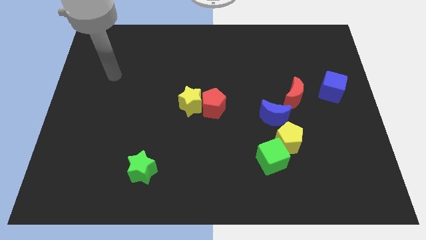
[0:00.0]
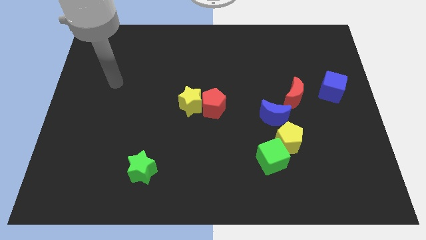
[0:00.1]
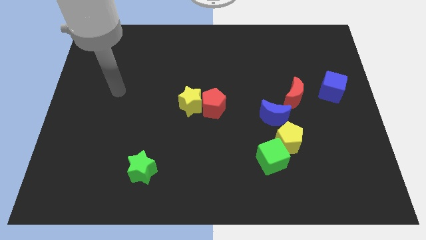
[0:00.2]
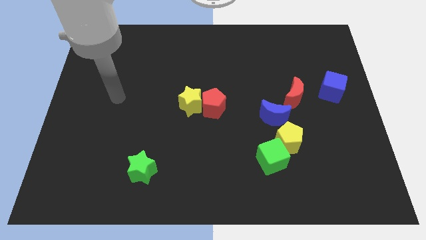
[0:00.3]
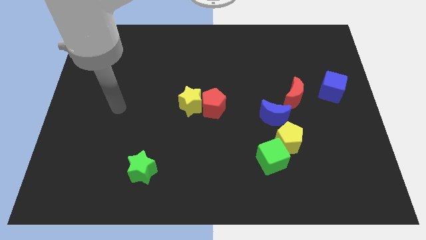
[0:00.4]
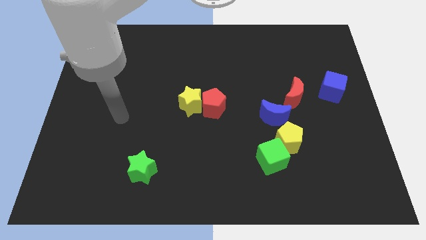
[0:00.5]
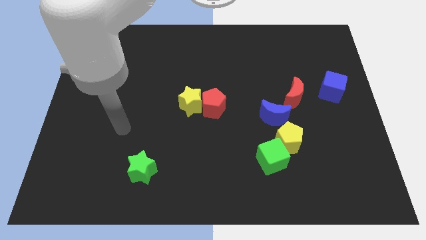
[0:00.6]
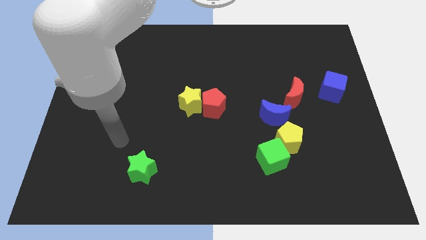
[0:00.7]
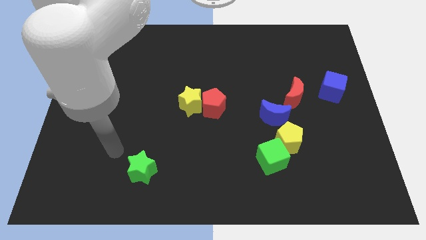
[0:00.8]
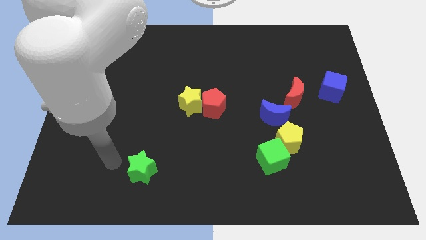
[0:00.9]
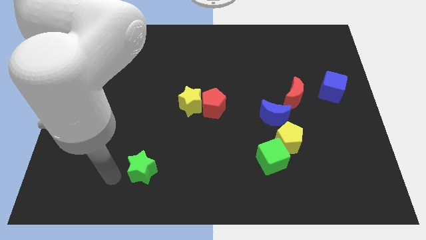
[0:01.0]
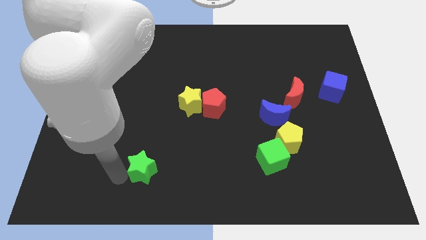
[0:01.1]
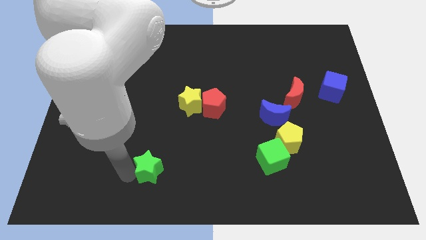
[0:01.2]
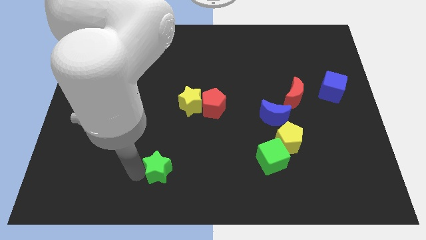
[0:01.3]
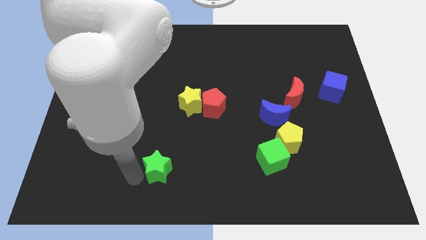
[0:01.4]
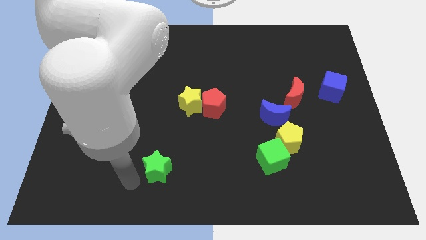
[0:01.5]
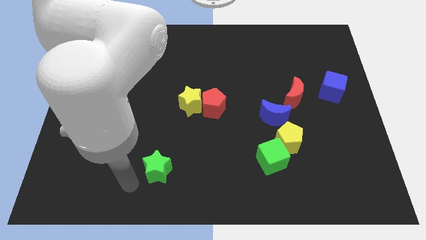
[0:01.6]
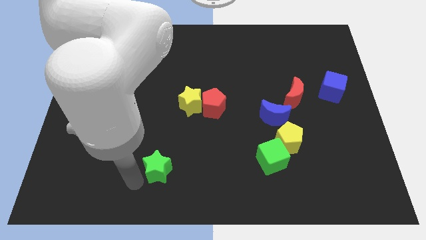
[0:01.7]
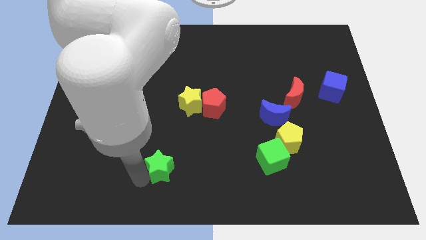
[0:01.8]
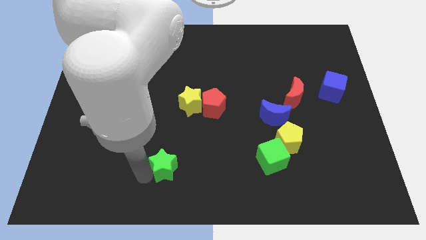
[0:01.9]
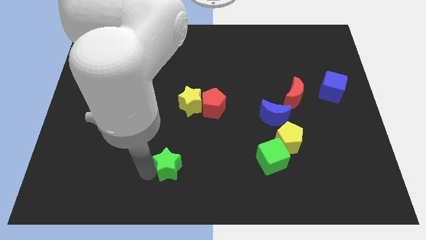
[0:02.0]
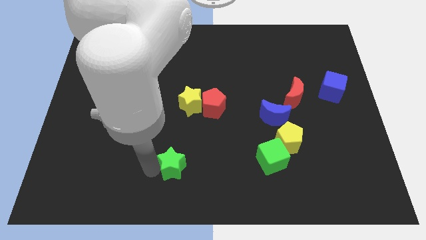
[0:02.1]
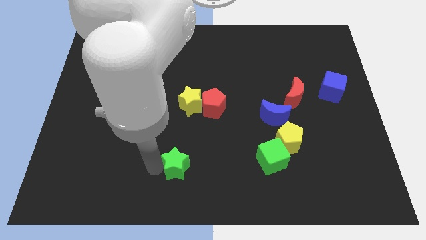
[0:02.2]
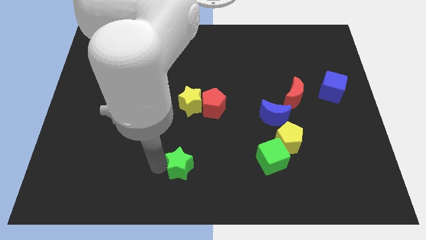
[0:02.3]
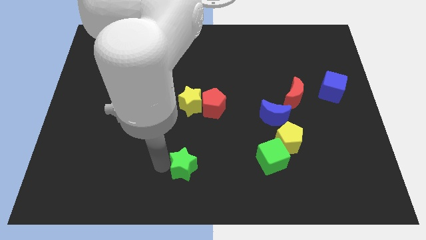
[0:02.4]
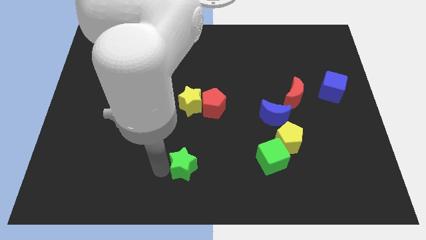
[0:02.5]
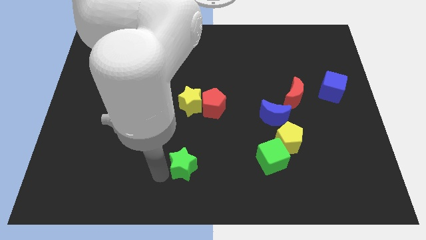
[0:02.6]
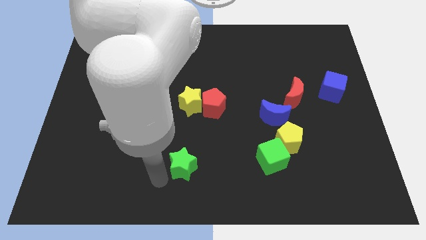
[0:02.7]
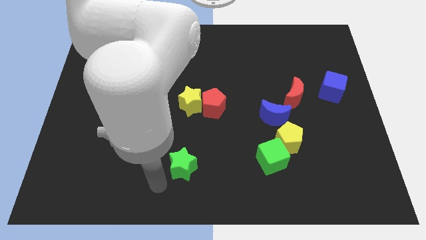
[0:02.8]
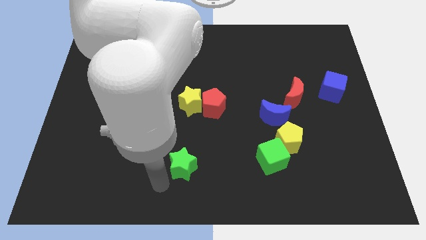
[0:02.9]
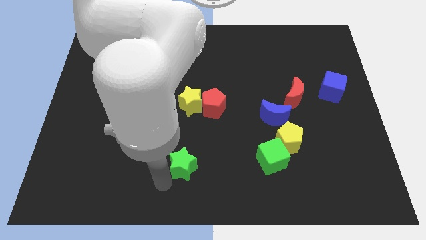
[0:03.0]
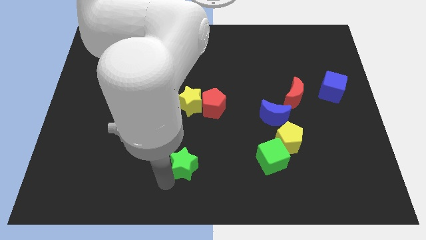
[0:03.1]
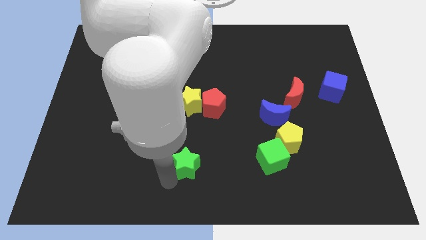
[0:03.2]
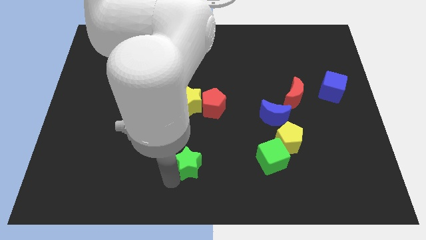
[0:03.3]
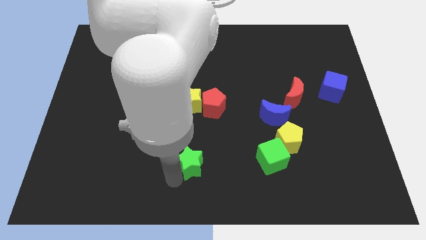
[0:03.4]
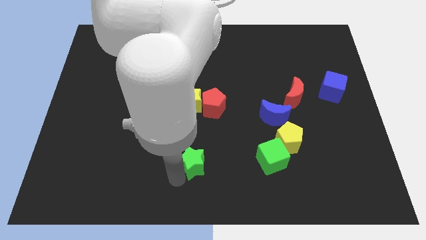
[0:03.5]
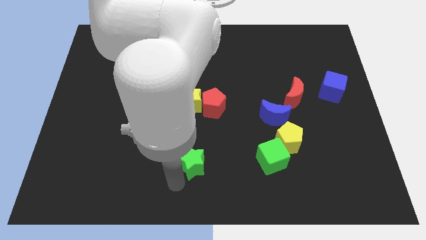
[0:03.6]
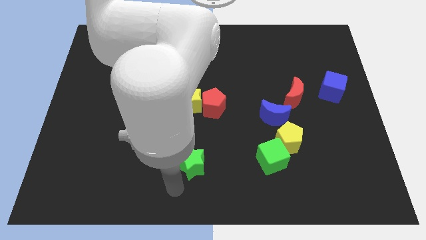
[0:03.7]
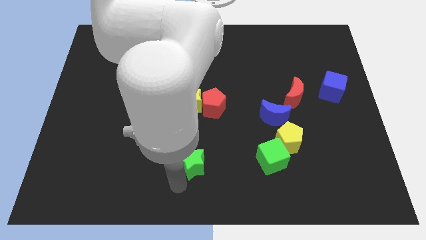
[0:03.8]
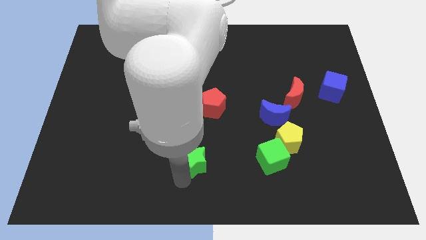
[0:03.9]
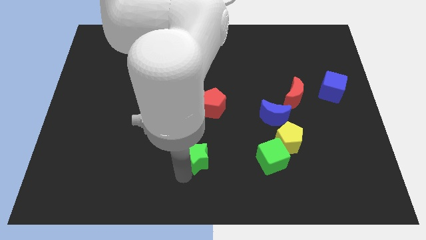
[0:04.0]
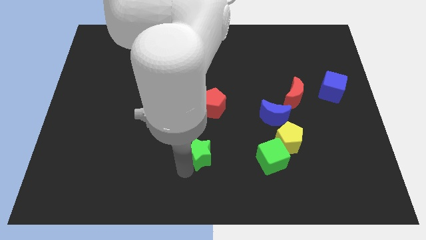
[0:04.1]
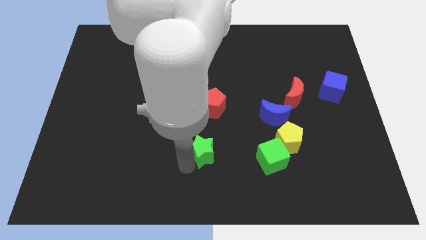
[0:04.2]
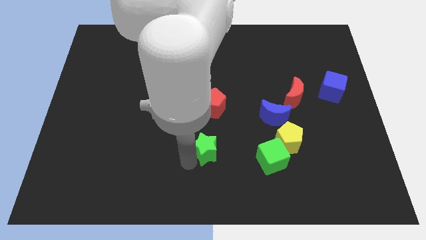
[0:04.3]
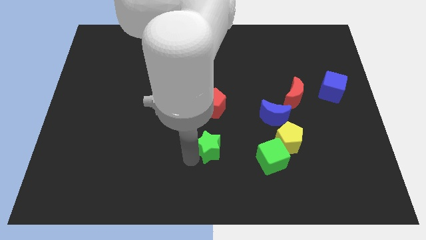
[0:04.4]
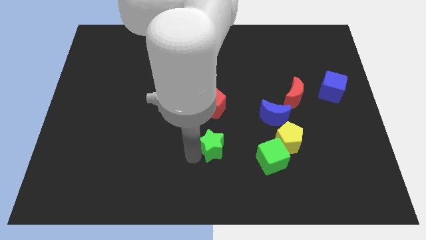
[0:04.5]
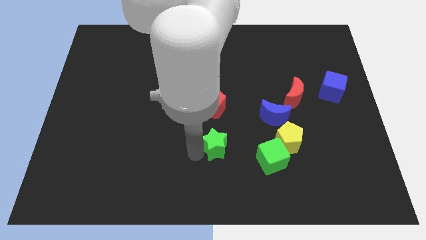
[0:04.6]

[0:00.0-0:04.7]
push the green star just left of the yellow pentagon

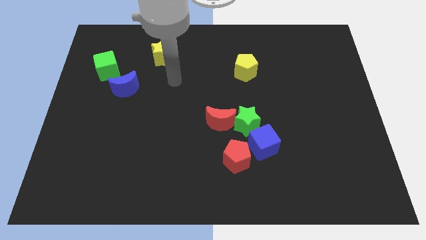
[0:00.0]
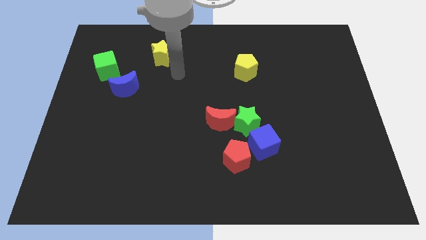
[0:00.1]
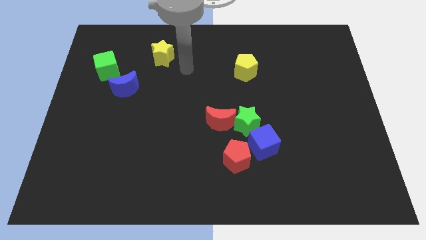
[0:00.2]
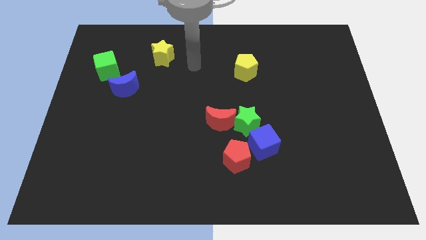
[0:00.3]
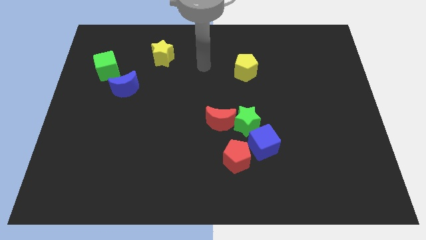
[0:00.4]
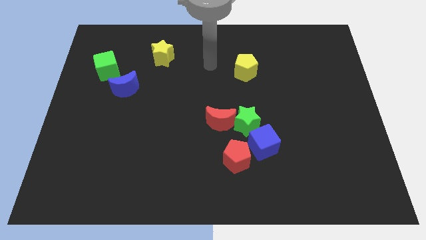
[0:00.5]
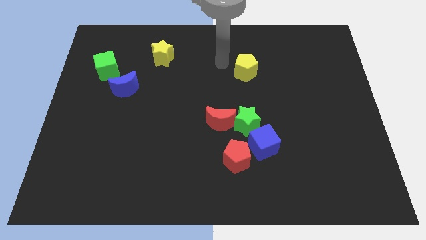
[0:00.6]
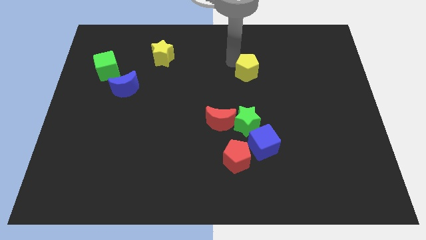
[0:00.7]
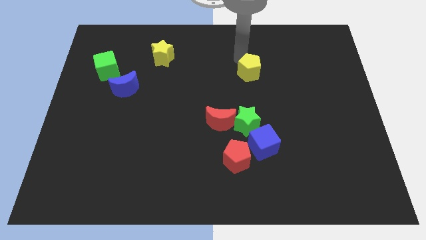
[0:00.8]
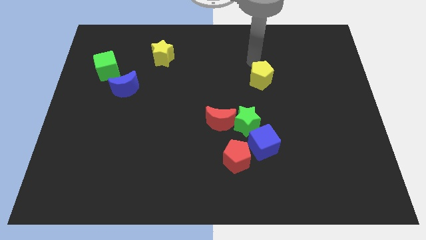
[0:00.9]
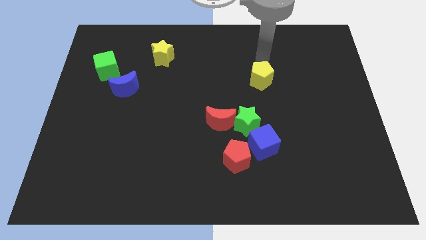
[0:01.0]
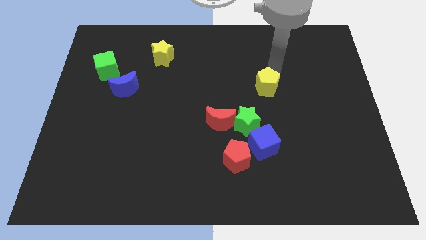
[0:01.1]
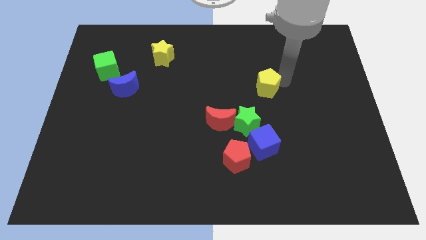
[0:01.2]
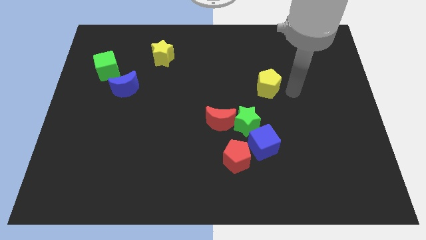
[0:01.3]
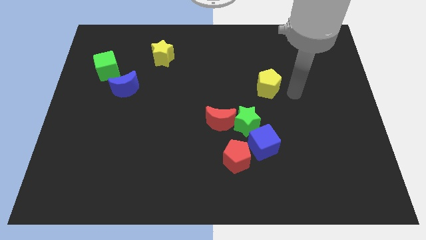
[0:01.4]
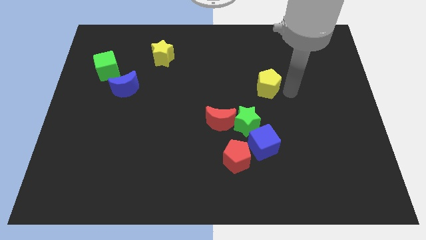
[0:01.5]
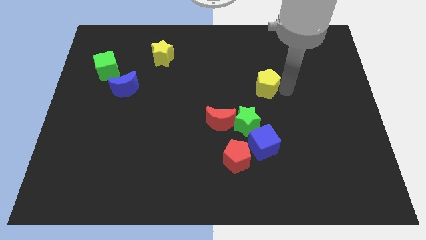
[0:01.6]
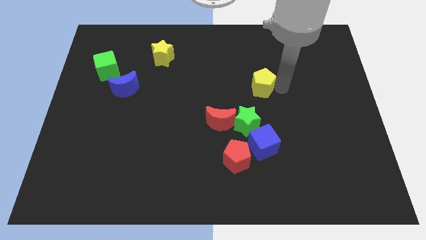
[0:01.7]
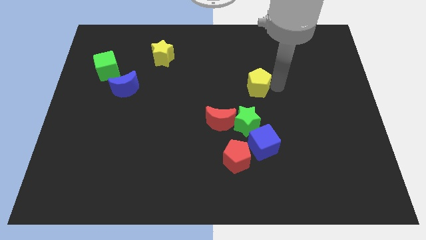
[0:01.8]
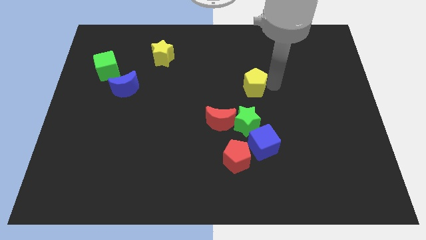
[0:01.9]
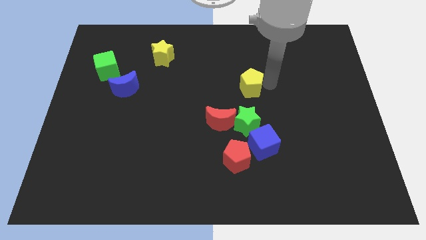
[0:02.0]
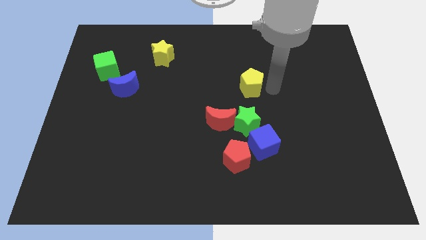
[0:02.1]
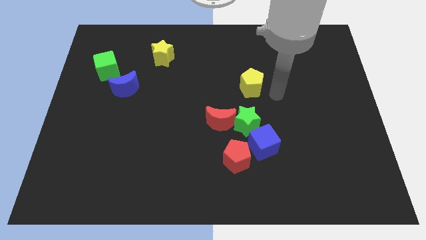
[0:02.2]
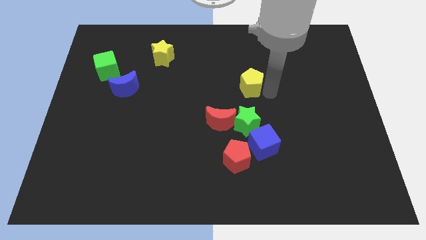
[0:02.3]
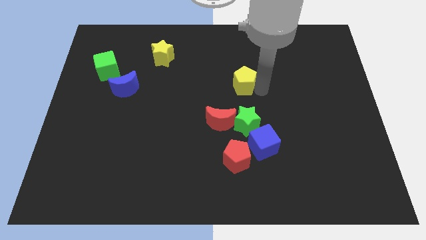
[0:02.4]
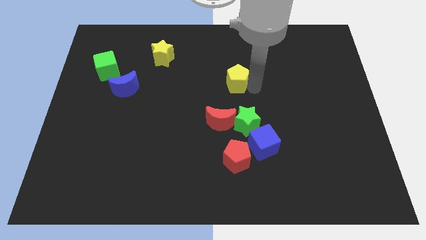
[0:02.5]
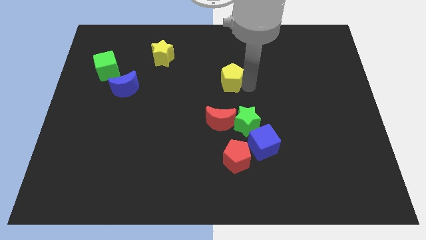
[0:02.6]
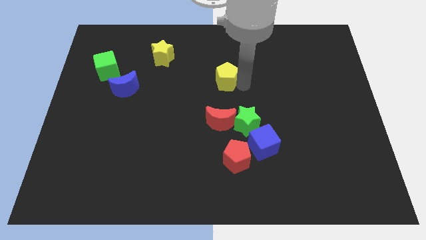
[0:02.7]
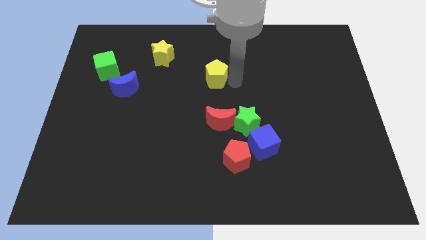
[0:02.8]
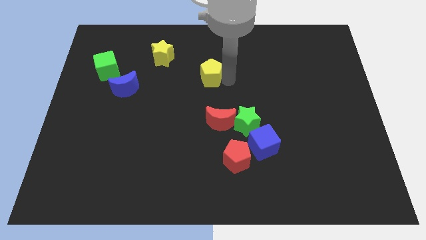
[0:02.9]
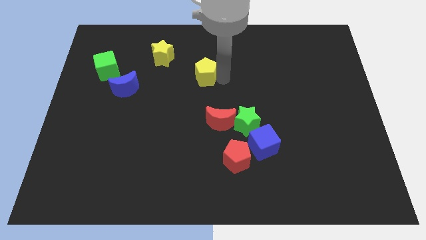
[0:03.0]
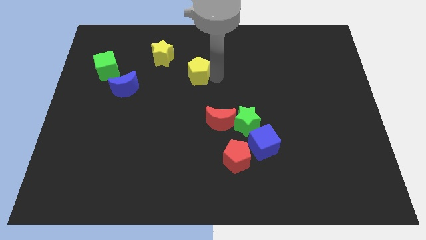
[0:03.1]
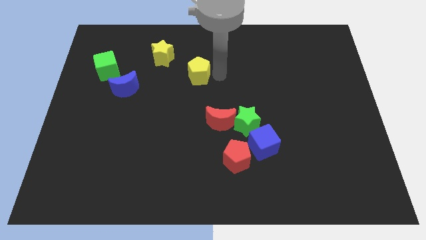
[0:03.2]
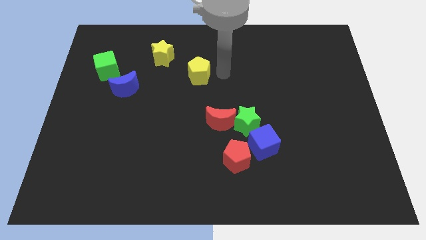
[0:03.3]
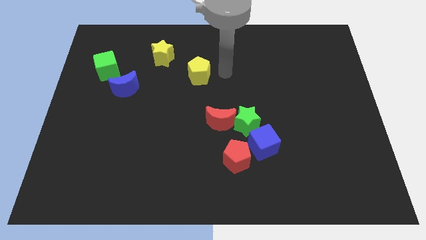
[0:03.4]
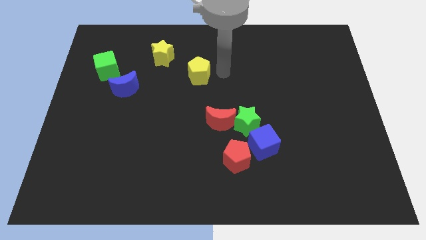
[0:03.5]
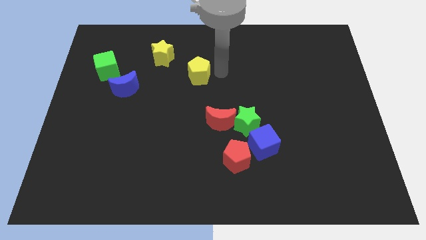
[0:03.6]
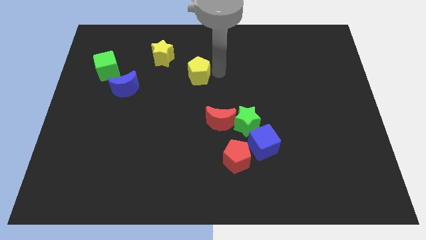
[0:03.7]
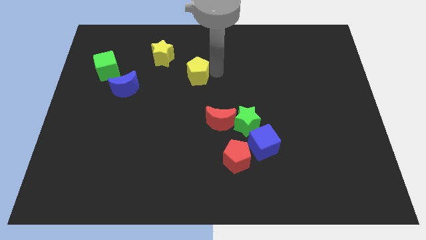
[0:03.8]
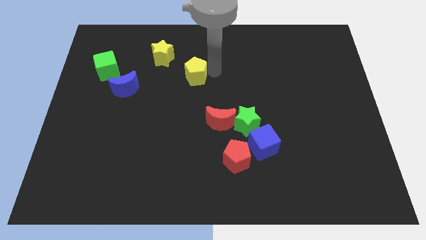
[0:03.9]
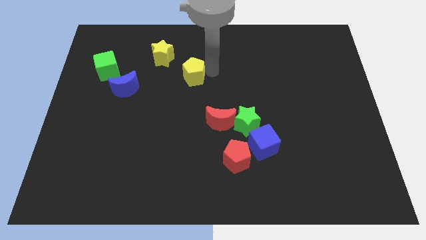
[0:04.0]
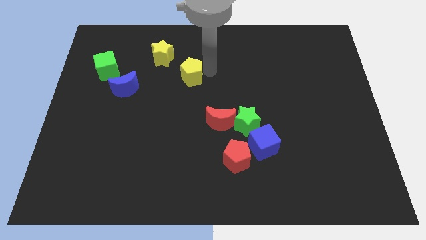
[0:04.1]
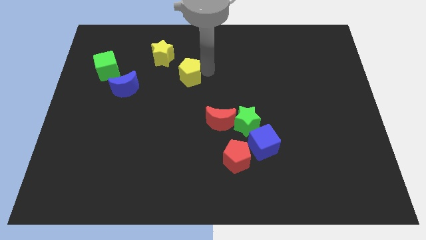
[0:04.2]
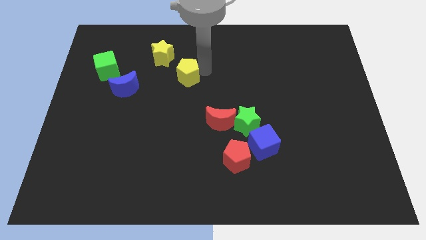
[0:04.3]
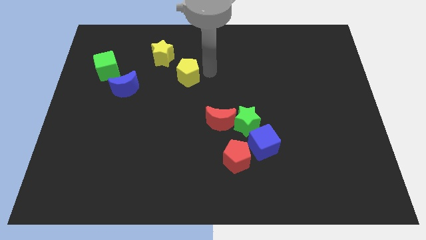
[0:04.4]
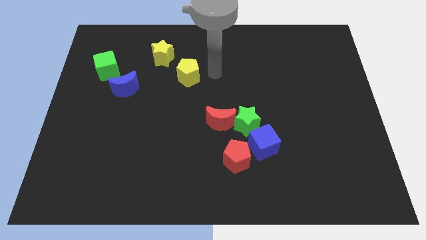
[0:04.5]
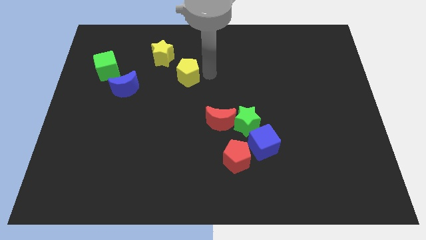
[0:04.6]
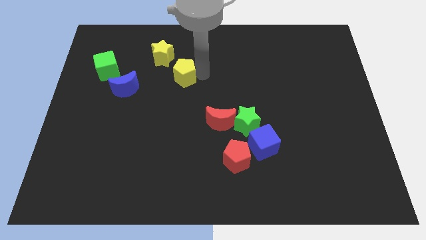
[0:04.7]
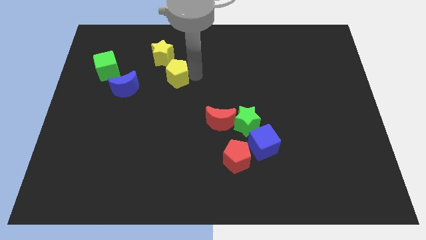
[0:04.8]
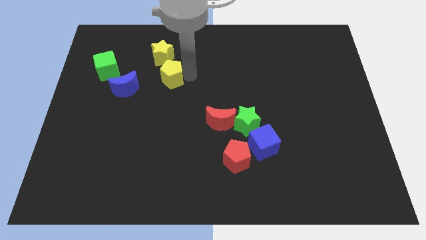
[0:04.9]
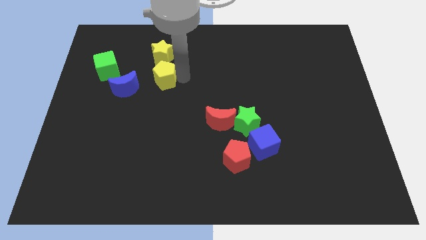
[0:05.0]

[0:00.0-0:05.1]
push the yellow pentagon to the top right of the blue moon
